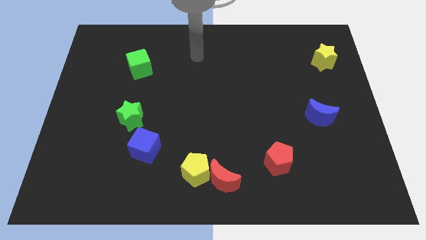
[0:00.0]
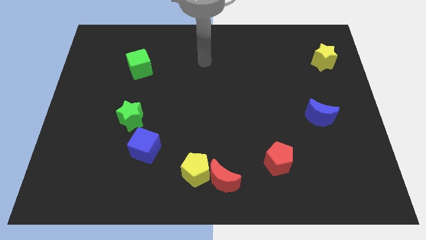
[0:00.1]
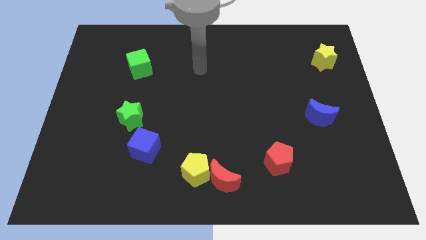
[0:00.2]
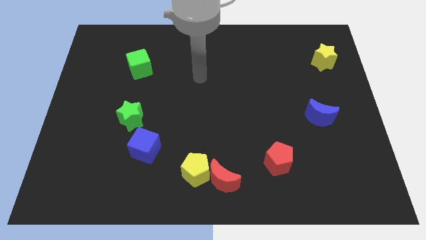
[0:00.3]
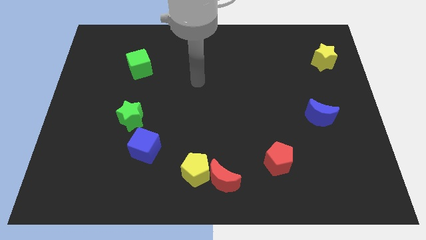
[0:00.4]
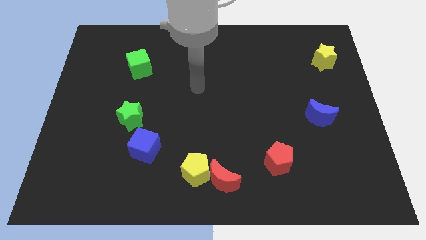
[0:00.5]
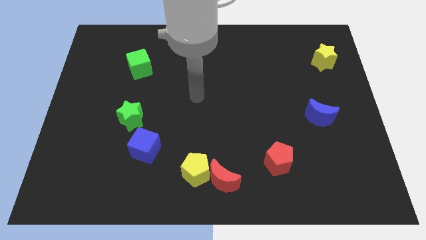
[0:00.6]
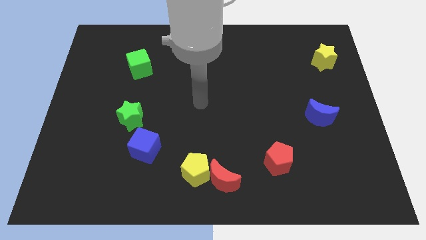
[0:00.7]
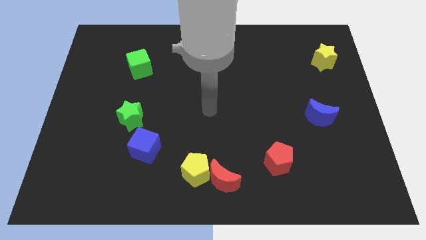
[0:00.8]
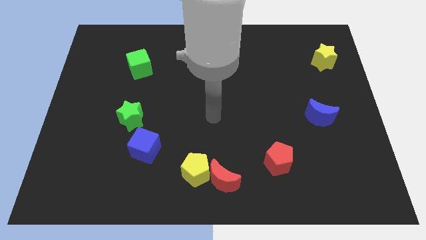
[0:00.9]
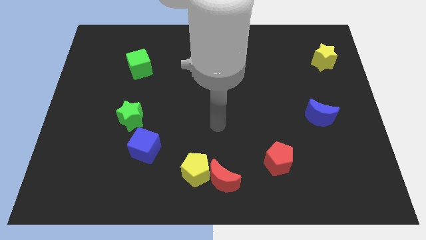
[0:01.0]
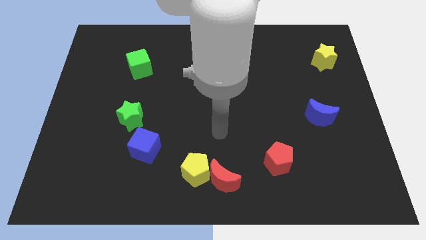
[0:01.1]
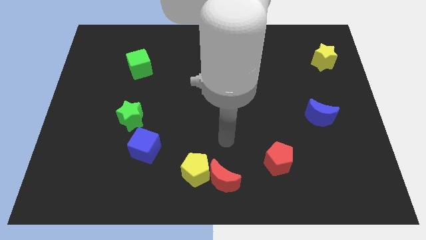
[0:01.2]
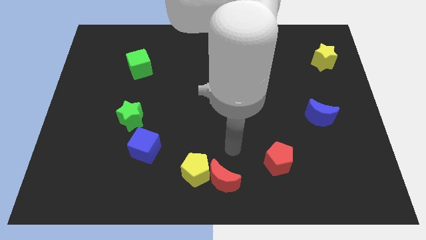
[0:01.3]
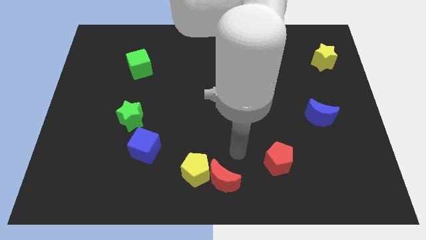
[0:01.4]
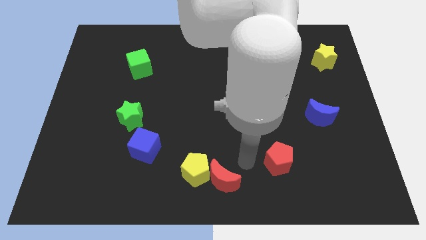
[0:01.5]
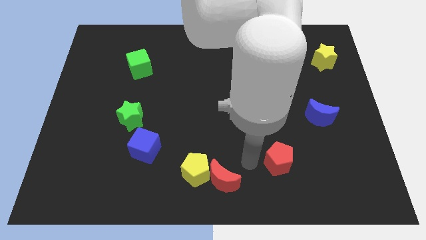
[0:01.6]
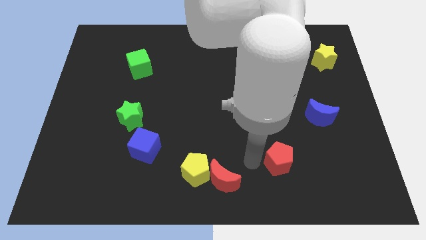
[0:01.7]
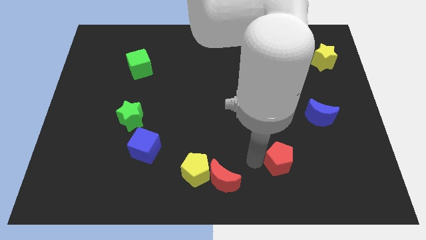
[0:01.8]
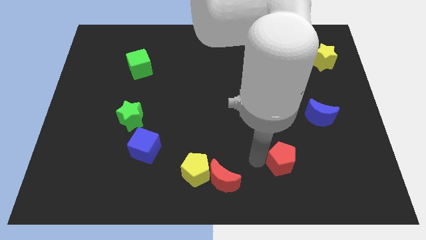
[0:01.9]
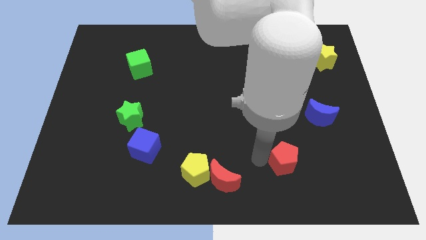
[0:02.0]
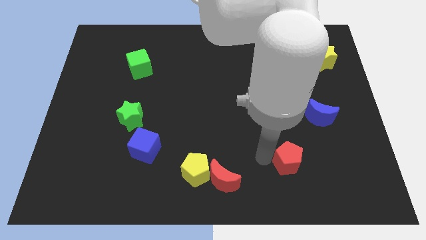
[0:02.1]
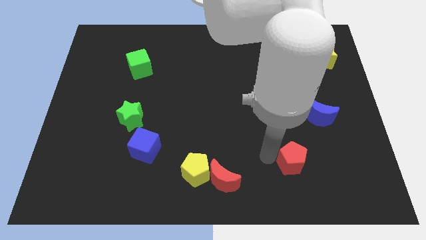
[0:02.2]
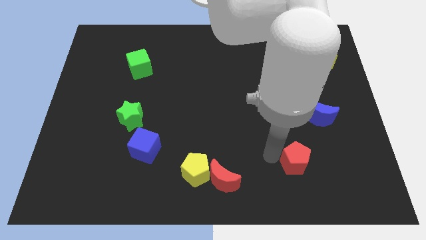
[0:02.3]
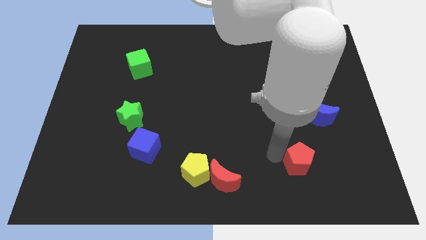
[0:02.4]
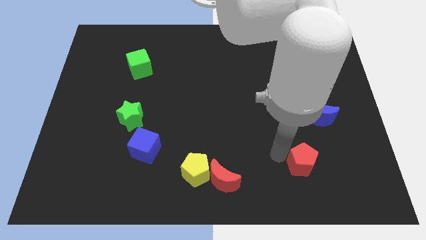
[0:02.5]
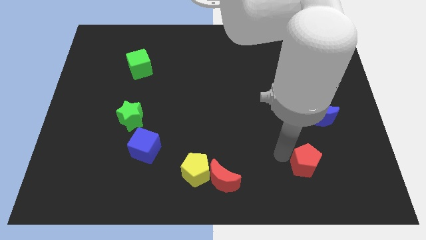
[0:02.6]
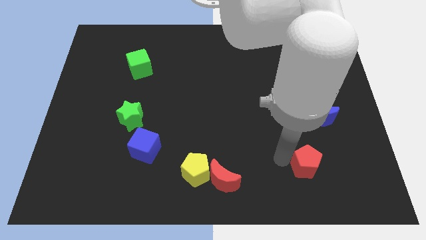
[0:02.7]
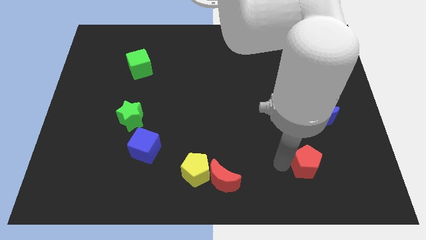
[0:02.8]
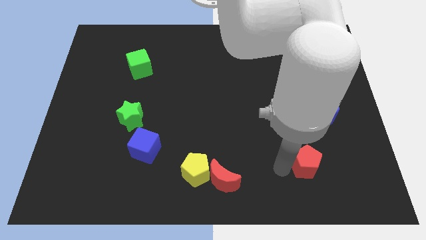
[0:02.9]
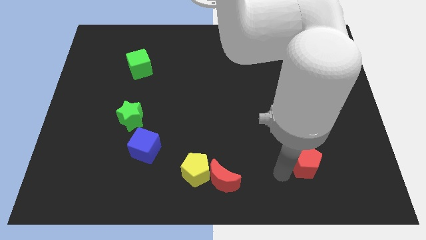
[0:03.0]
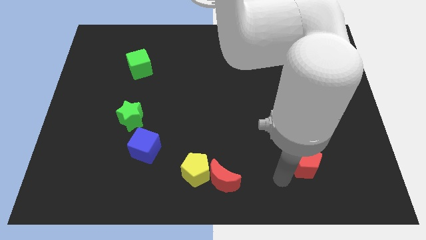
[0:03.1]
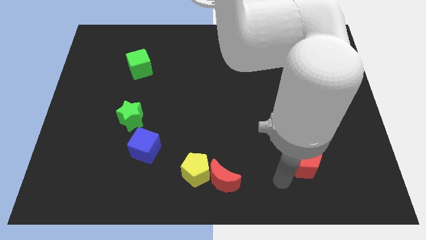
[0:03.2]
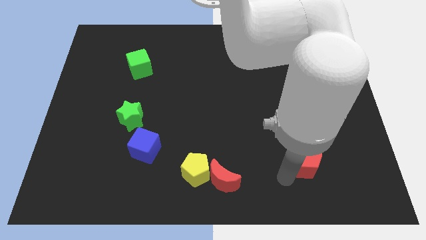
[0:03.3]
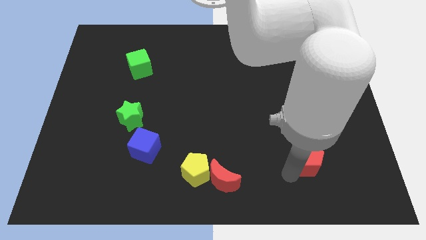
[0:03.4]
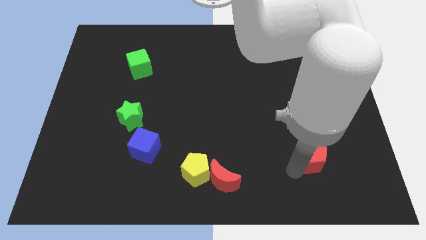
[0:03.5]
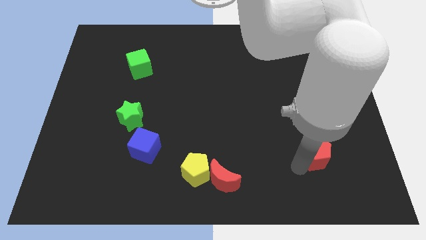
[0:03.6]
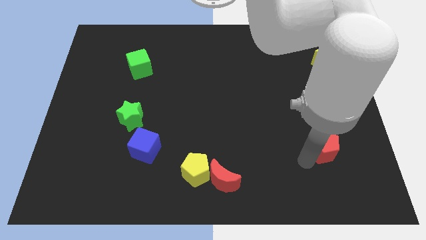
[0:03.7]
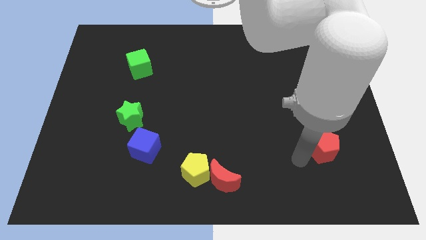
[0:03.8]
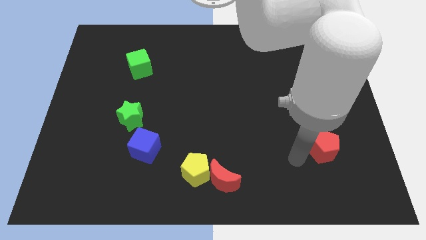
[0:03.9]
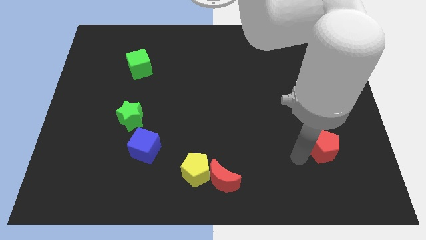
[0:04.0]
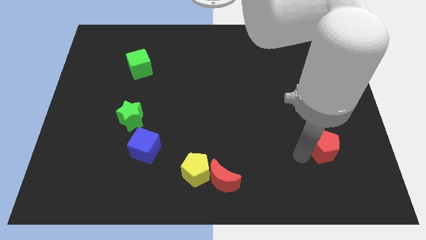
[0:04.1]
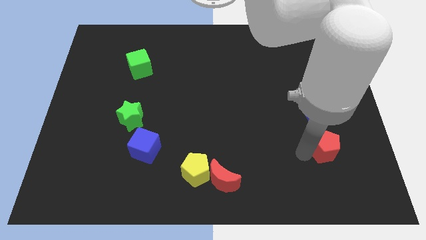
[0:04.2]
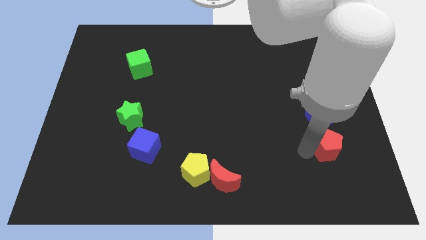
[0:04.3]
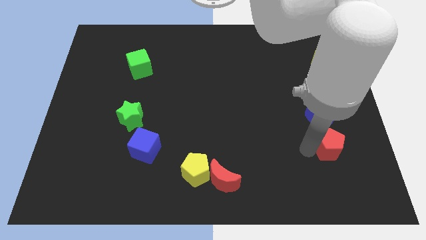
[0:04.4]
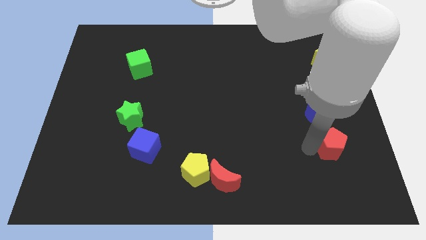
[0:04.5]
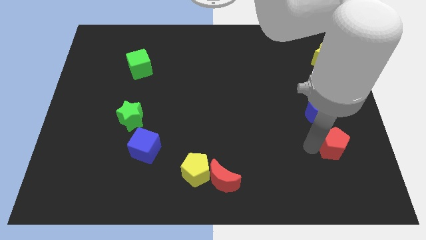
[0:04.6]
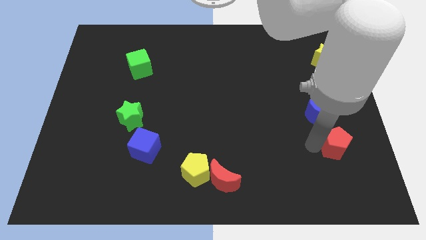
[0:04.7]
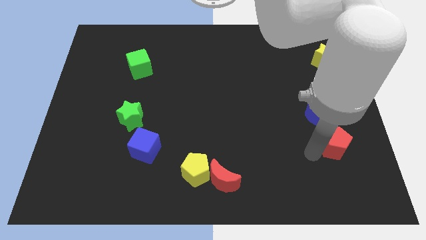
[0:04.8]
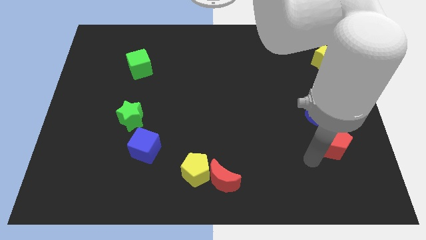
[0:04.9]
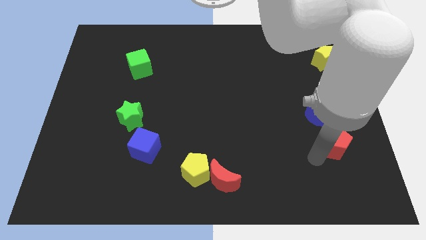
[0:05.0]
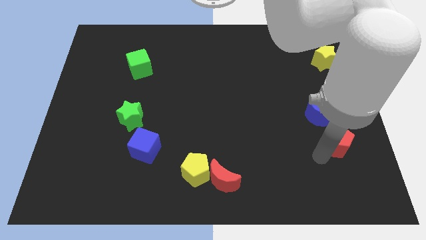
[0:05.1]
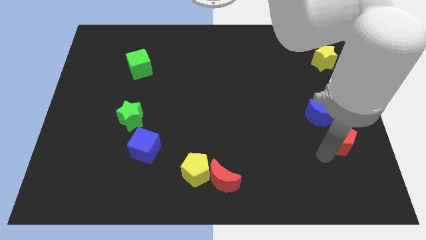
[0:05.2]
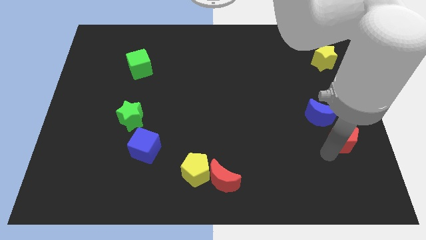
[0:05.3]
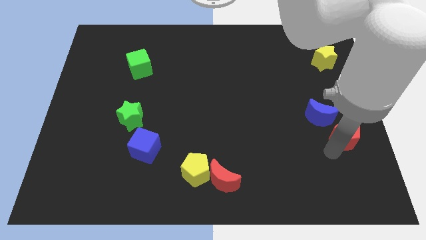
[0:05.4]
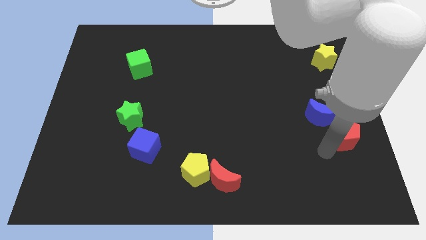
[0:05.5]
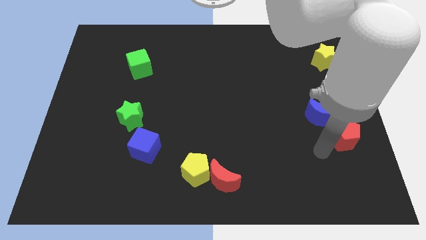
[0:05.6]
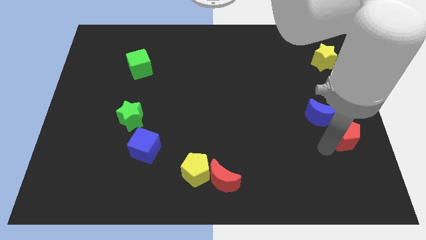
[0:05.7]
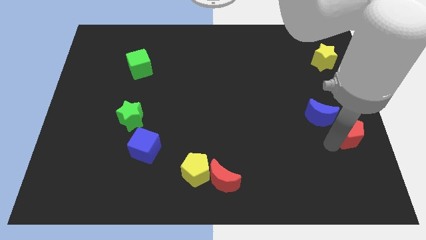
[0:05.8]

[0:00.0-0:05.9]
move the red pentagon to the center right

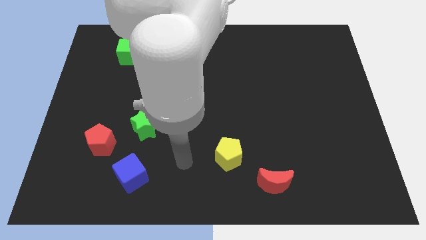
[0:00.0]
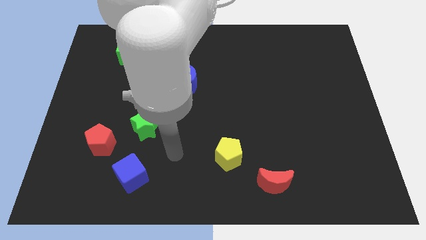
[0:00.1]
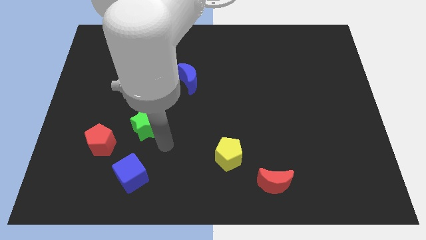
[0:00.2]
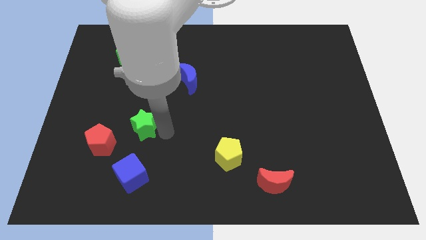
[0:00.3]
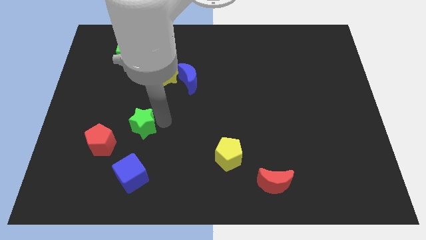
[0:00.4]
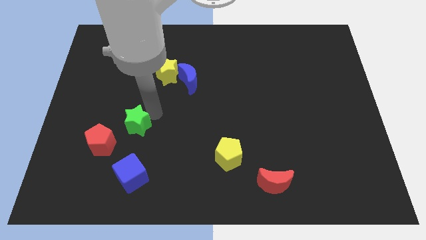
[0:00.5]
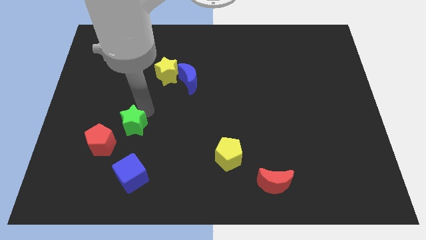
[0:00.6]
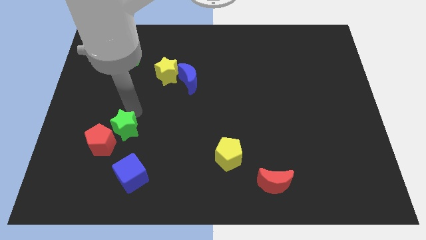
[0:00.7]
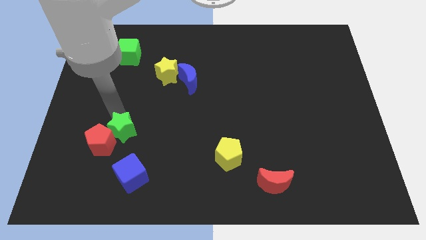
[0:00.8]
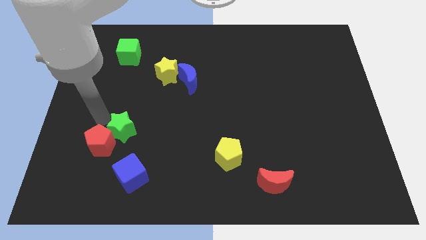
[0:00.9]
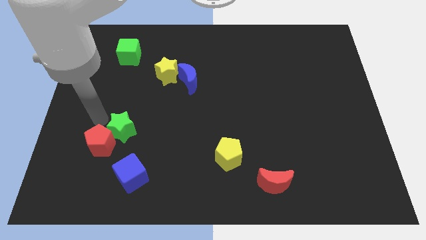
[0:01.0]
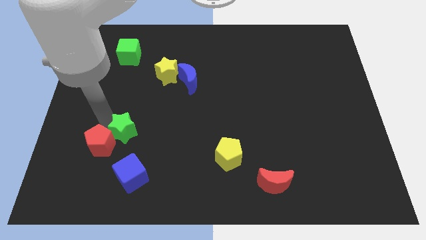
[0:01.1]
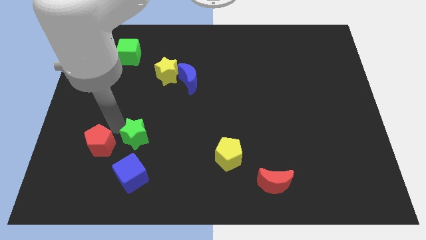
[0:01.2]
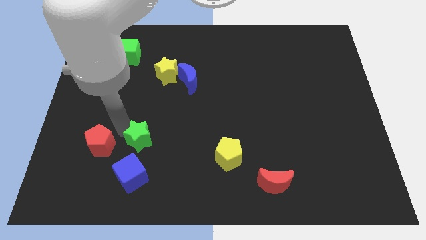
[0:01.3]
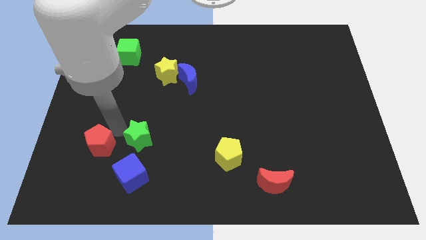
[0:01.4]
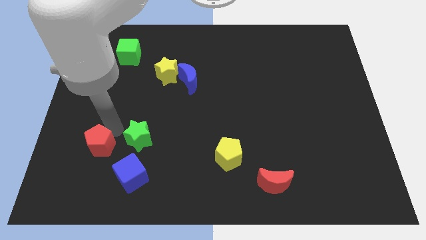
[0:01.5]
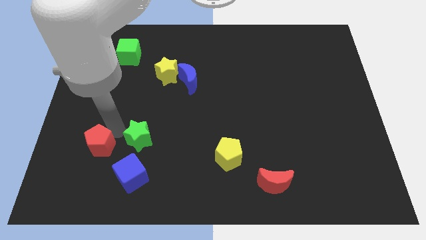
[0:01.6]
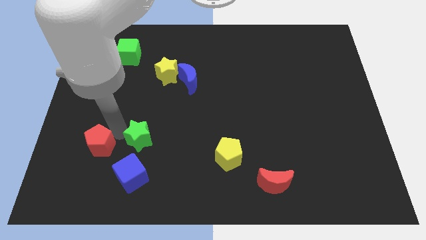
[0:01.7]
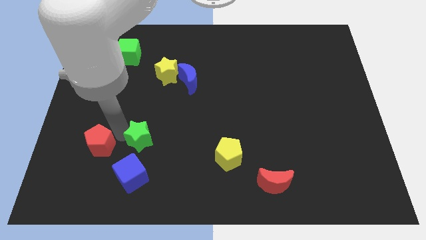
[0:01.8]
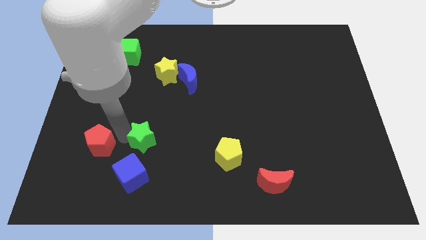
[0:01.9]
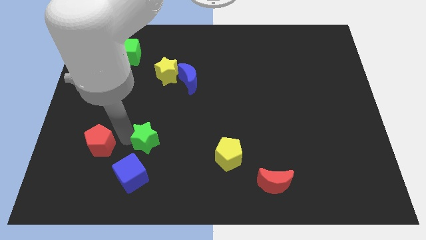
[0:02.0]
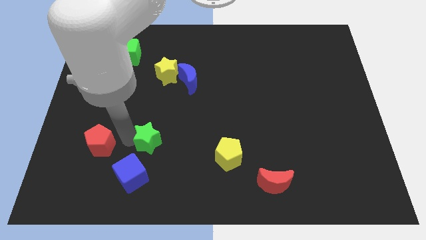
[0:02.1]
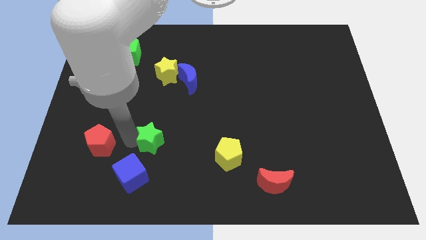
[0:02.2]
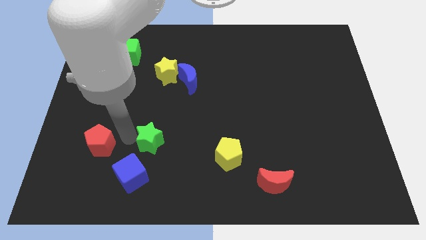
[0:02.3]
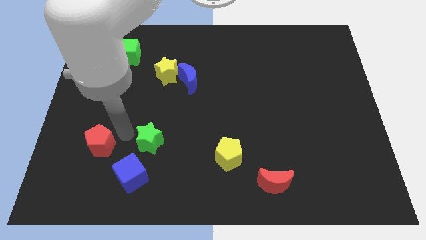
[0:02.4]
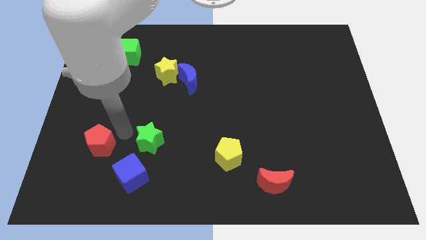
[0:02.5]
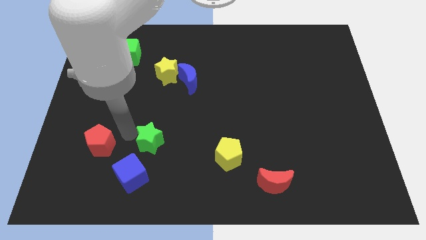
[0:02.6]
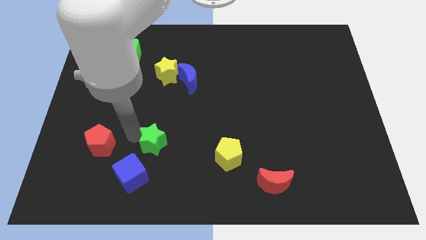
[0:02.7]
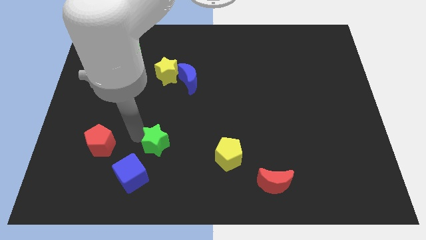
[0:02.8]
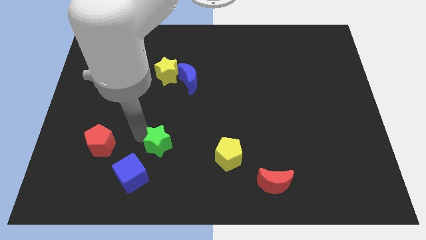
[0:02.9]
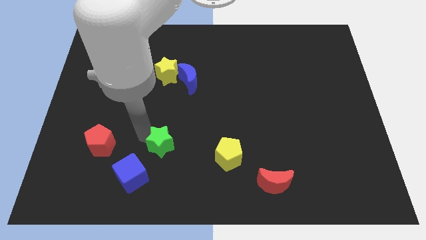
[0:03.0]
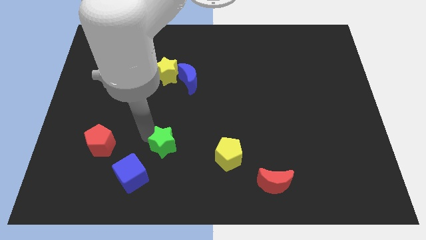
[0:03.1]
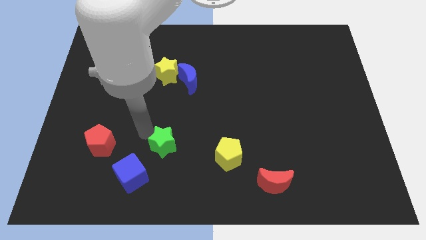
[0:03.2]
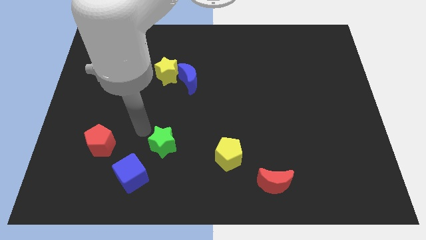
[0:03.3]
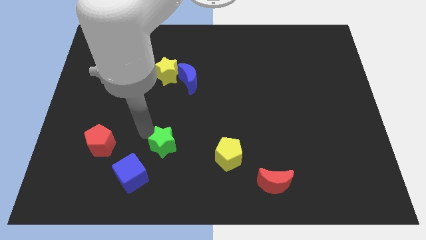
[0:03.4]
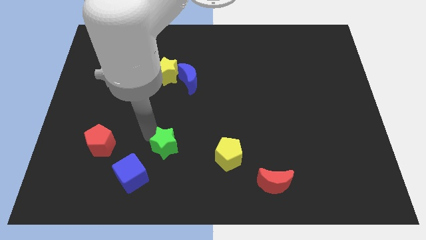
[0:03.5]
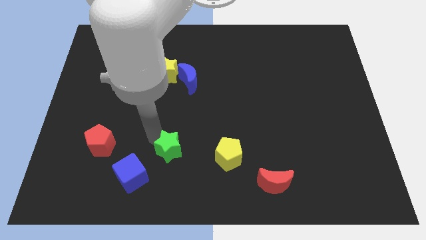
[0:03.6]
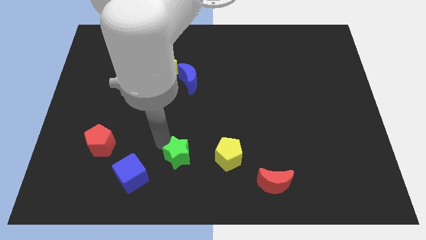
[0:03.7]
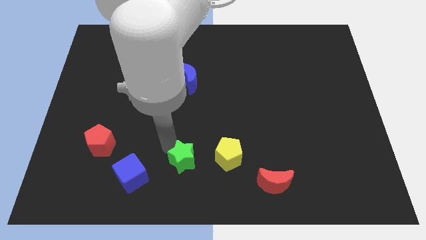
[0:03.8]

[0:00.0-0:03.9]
push the green star to the bottom
